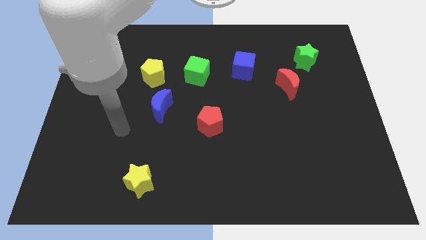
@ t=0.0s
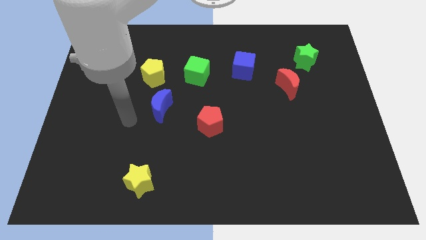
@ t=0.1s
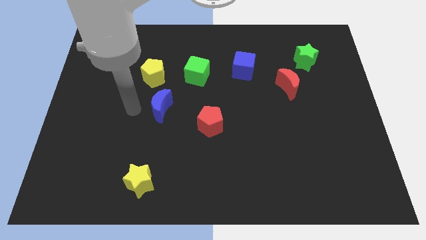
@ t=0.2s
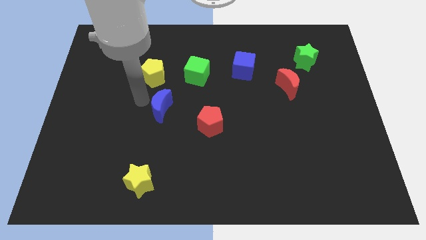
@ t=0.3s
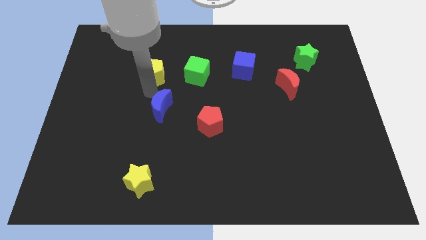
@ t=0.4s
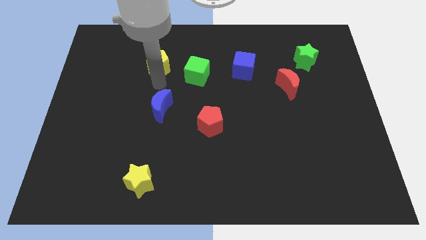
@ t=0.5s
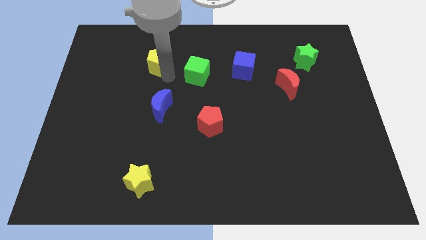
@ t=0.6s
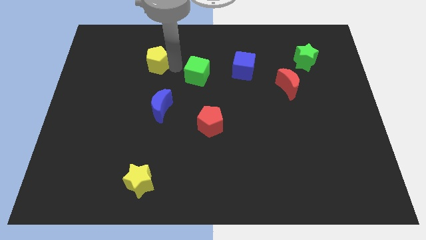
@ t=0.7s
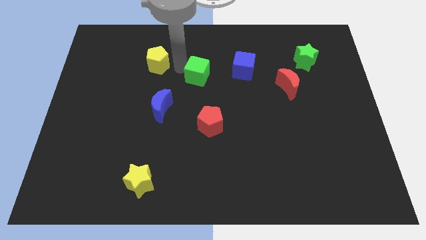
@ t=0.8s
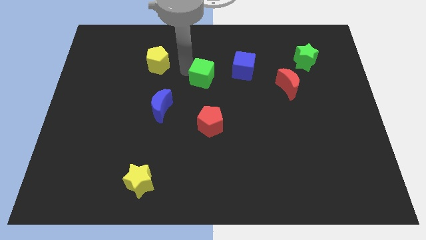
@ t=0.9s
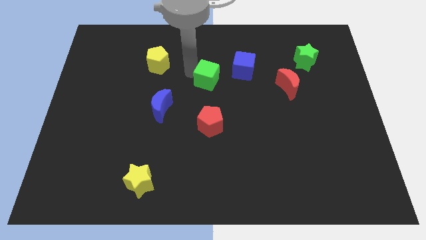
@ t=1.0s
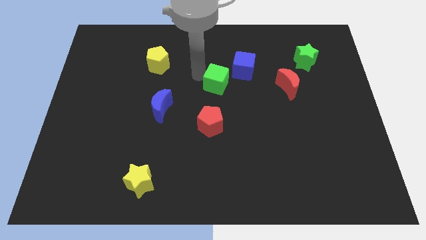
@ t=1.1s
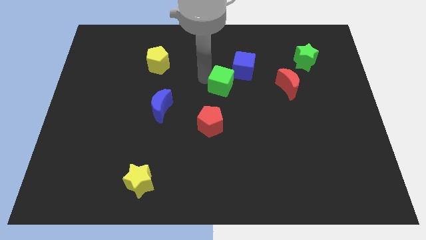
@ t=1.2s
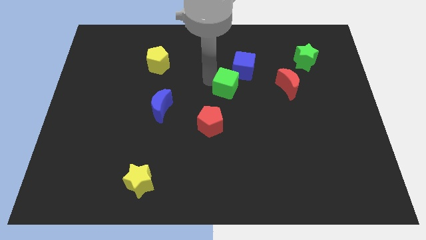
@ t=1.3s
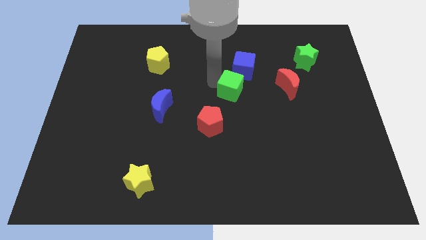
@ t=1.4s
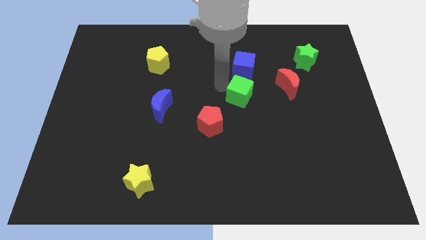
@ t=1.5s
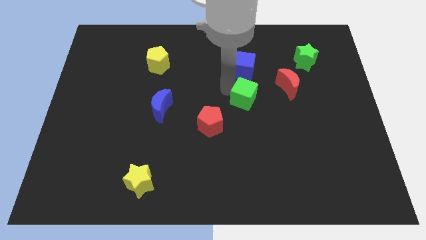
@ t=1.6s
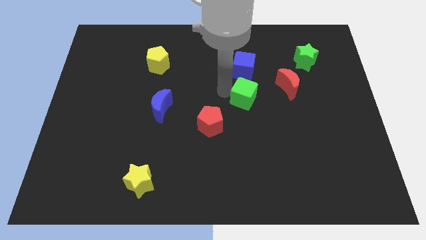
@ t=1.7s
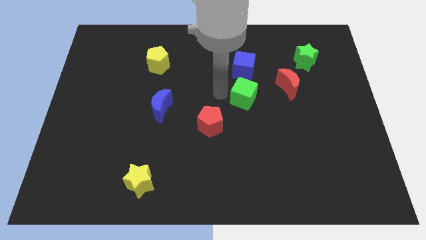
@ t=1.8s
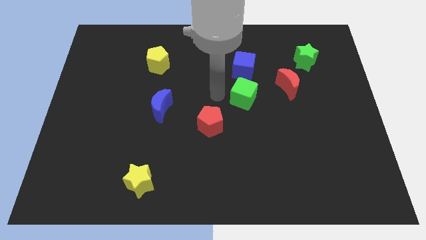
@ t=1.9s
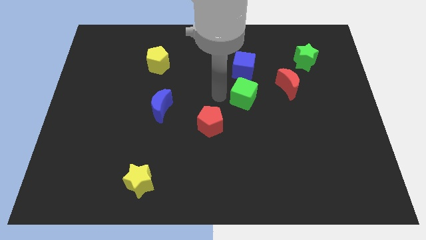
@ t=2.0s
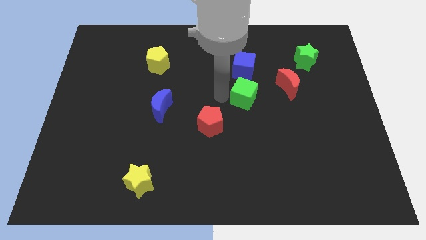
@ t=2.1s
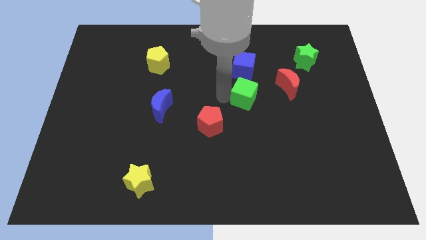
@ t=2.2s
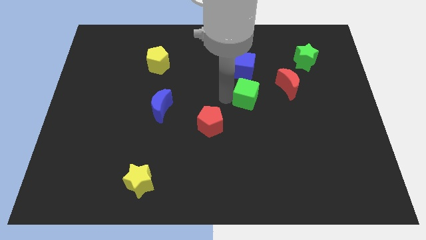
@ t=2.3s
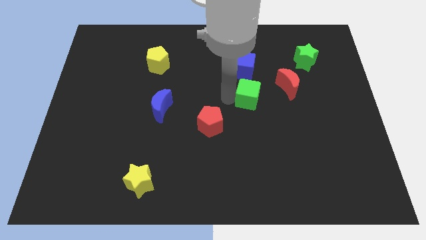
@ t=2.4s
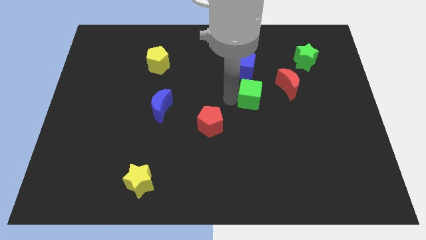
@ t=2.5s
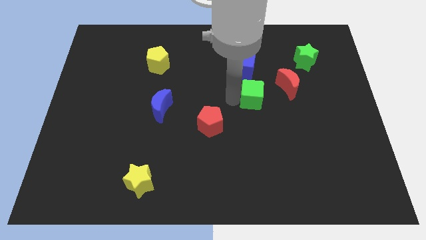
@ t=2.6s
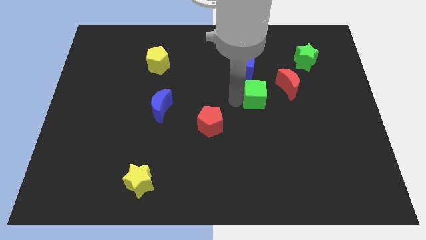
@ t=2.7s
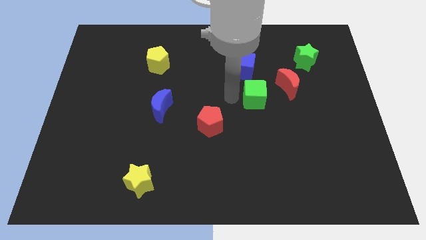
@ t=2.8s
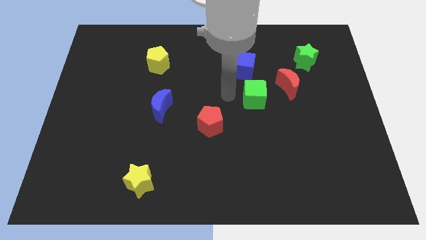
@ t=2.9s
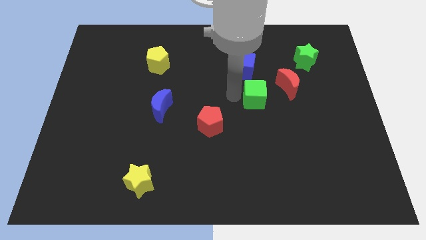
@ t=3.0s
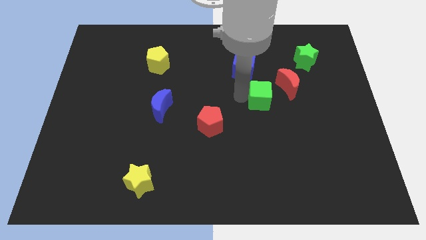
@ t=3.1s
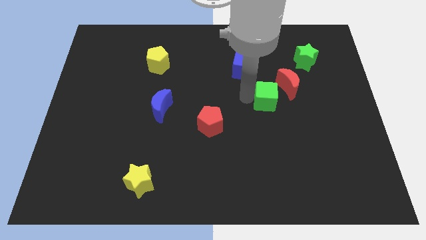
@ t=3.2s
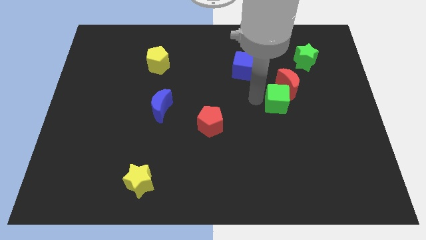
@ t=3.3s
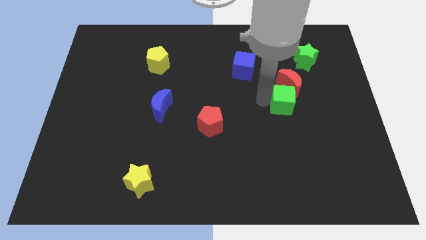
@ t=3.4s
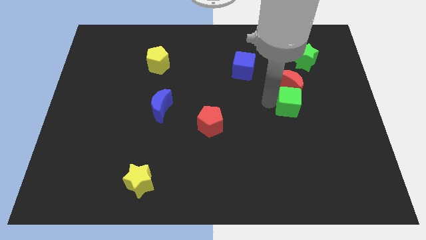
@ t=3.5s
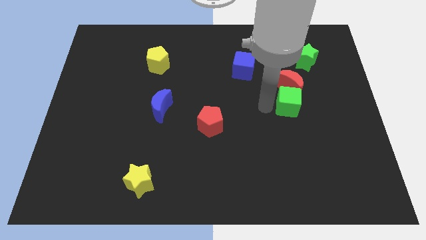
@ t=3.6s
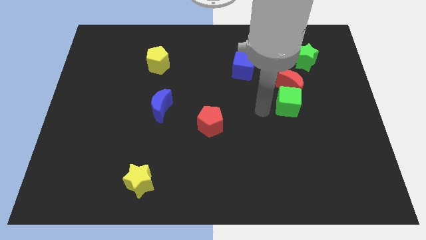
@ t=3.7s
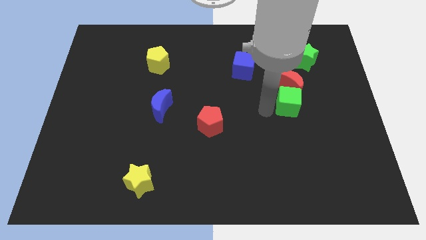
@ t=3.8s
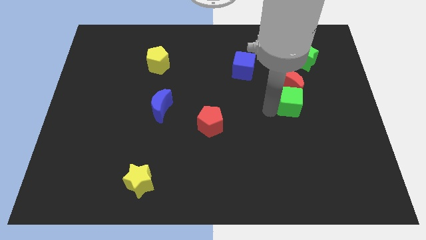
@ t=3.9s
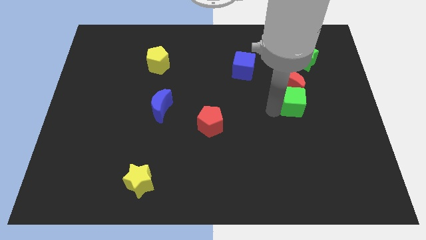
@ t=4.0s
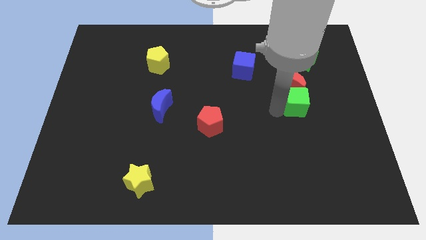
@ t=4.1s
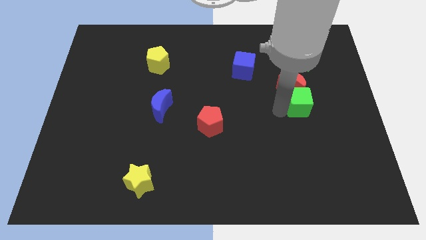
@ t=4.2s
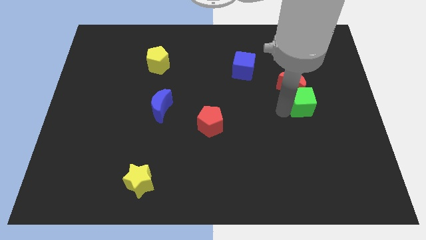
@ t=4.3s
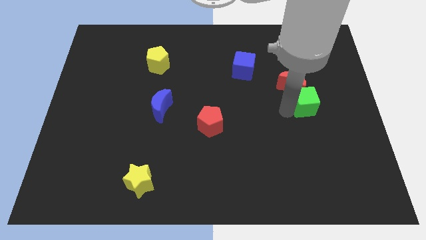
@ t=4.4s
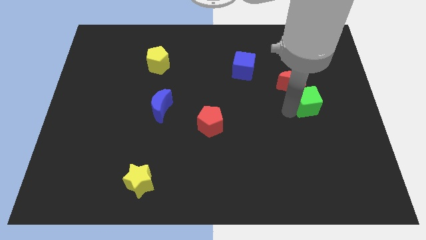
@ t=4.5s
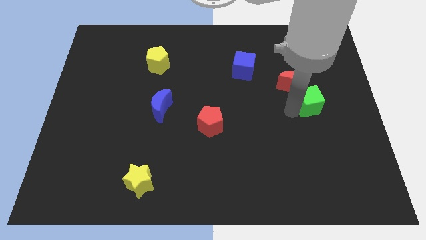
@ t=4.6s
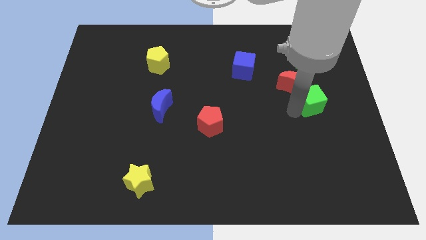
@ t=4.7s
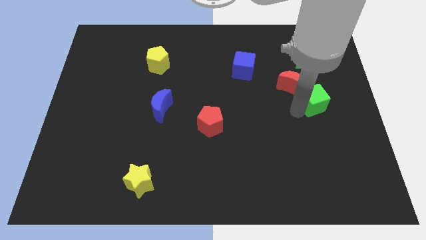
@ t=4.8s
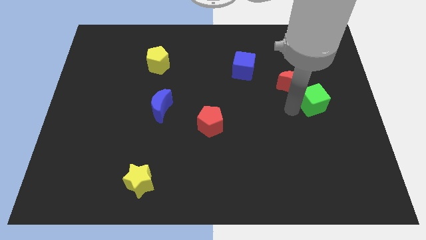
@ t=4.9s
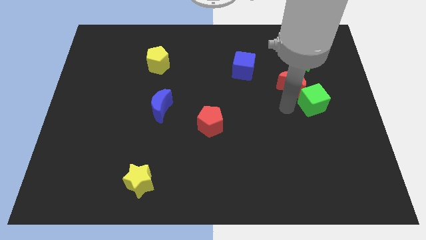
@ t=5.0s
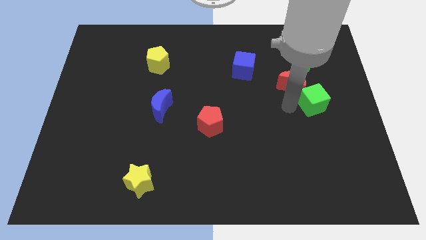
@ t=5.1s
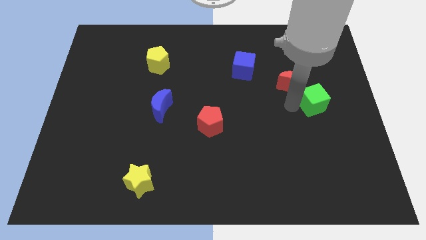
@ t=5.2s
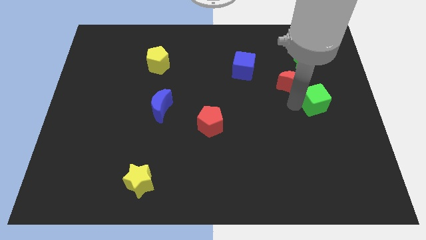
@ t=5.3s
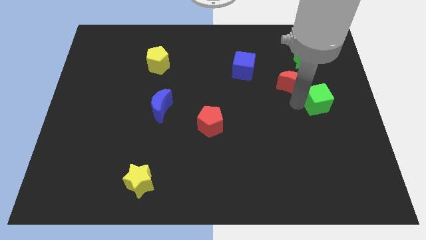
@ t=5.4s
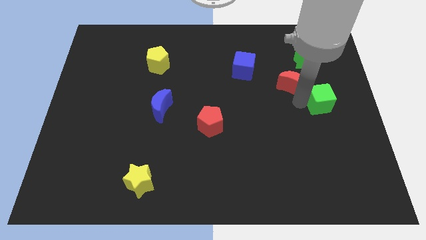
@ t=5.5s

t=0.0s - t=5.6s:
push the green cube to the right side of the board

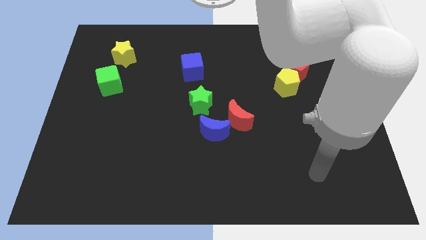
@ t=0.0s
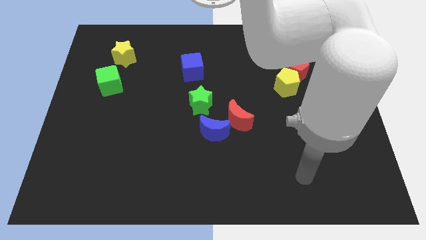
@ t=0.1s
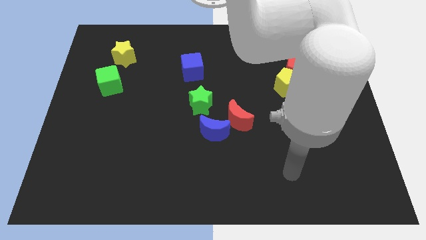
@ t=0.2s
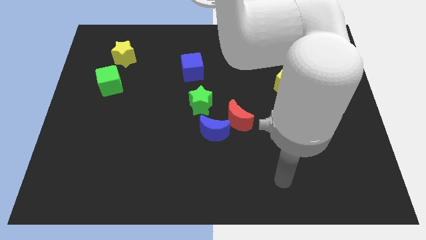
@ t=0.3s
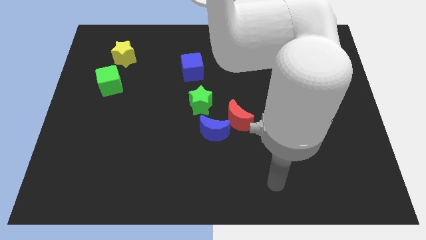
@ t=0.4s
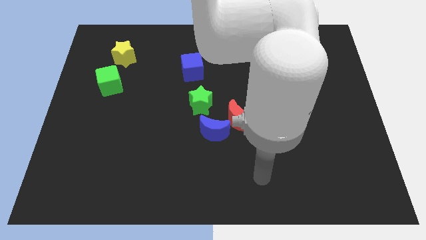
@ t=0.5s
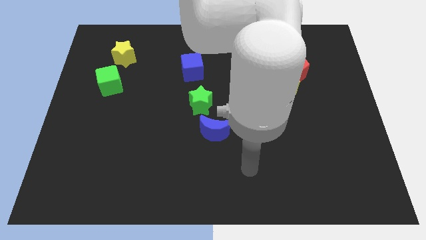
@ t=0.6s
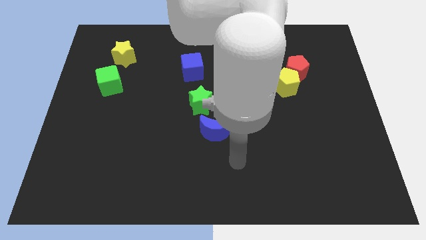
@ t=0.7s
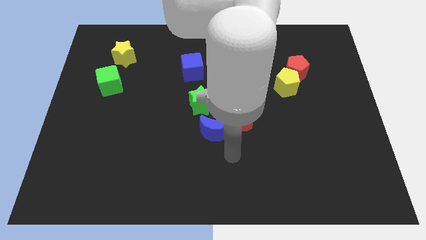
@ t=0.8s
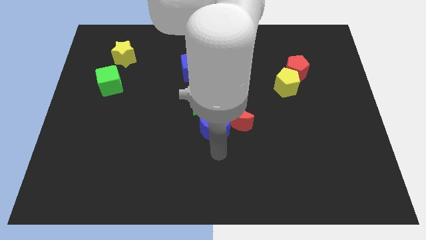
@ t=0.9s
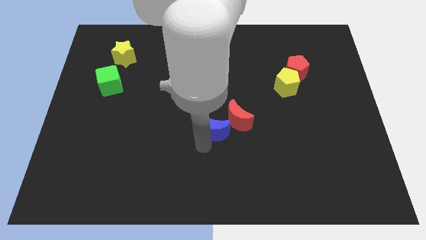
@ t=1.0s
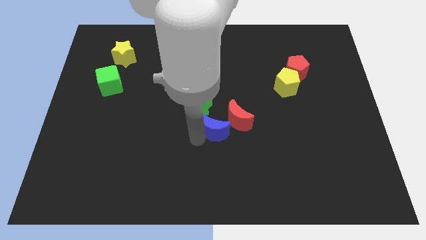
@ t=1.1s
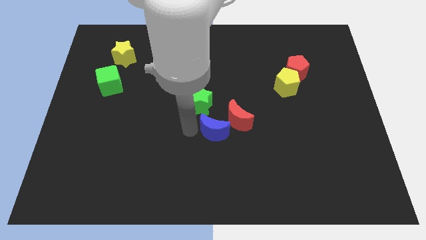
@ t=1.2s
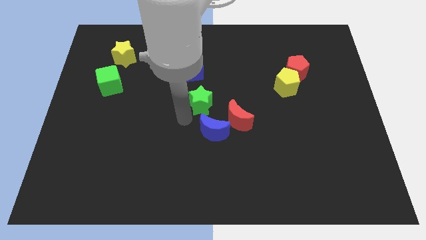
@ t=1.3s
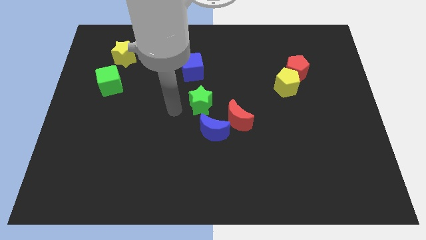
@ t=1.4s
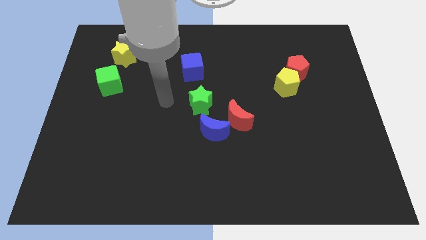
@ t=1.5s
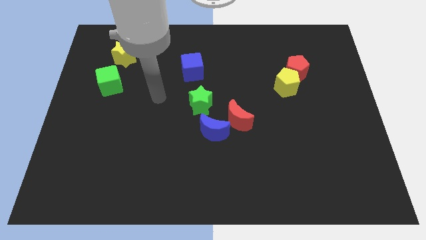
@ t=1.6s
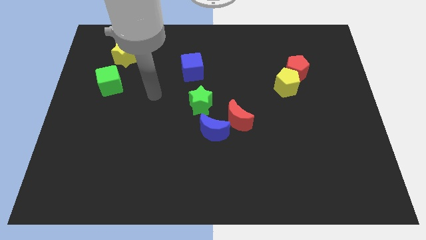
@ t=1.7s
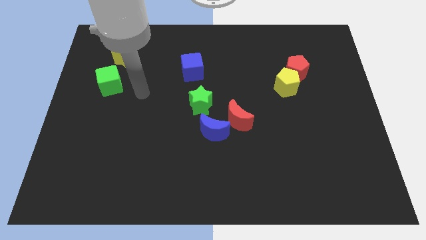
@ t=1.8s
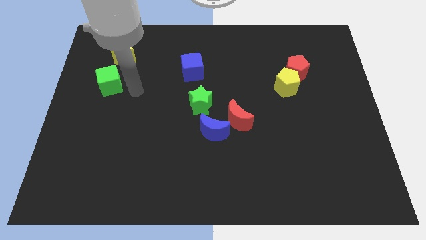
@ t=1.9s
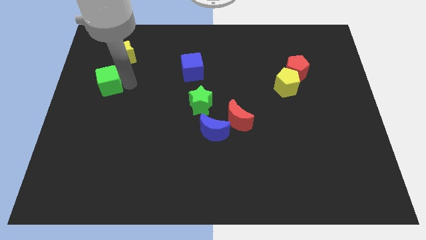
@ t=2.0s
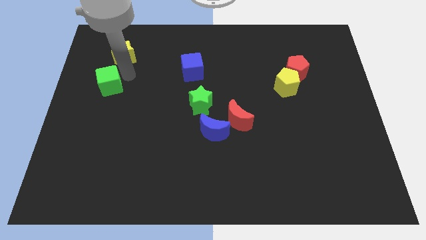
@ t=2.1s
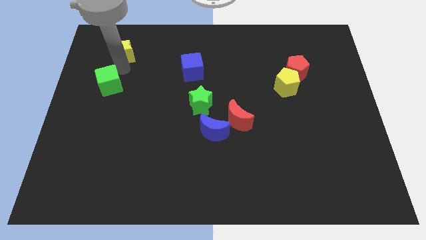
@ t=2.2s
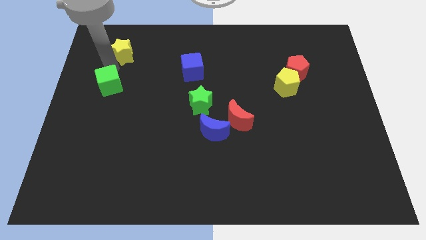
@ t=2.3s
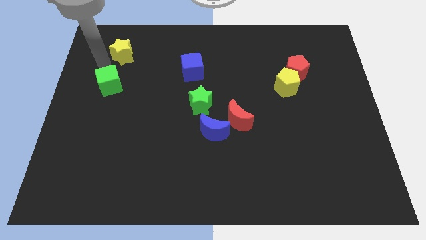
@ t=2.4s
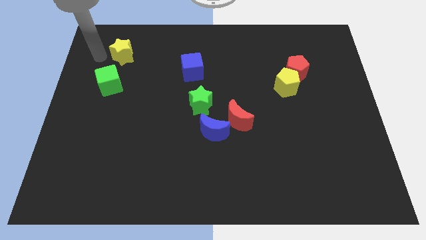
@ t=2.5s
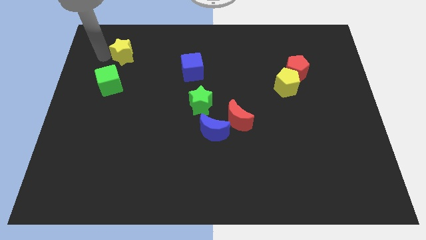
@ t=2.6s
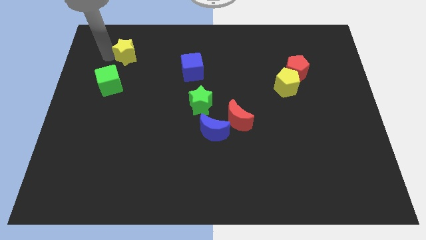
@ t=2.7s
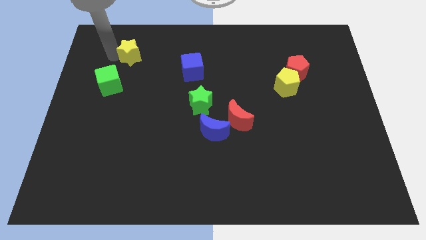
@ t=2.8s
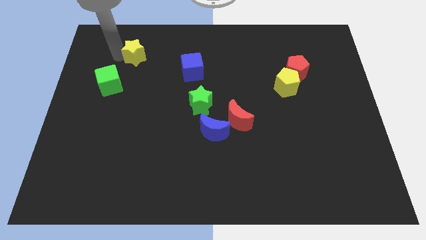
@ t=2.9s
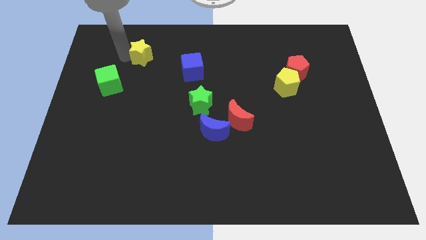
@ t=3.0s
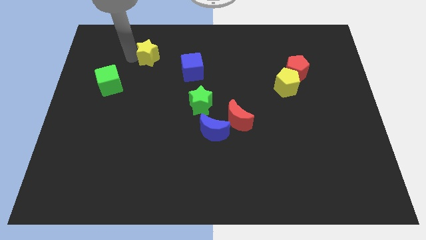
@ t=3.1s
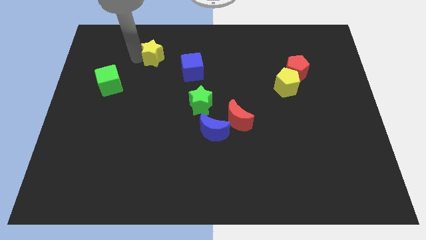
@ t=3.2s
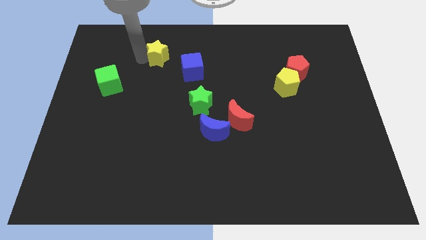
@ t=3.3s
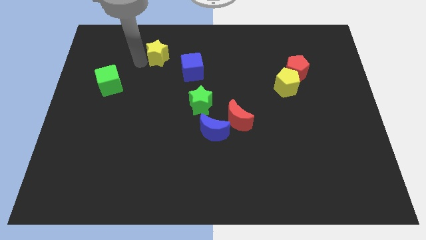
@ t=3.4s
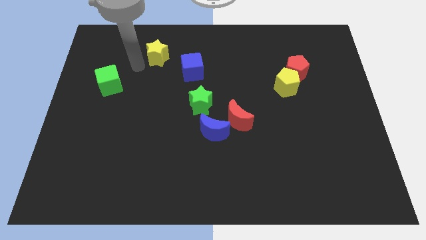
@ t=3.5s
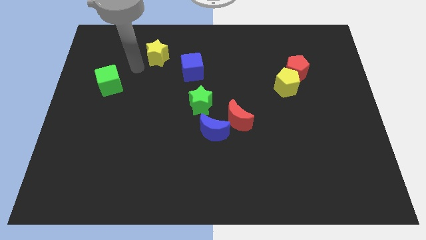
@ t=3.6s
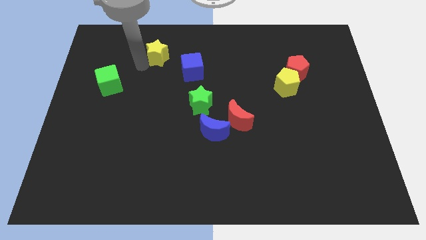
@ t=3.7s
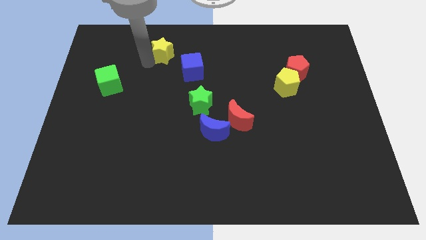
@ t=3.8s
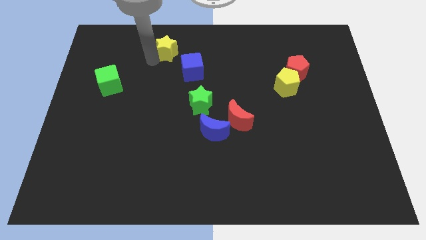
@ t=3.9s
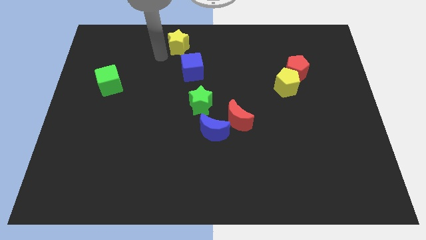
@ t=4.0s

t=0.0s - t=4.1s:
slide the yellow star to the top
